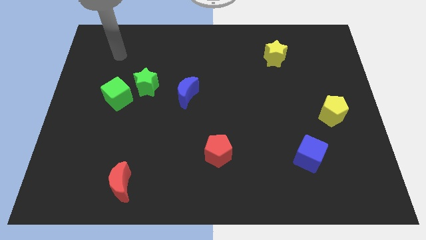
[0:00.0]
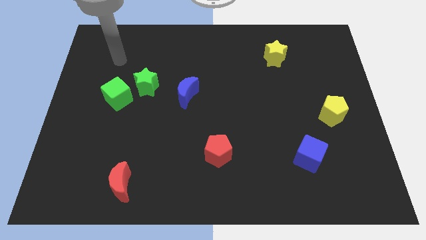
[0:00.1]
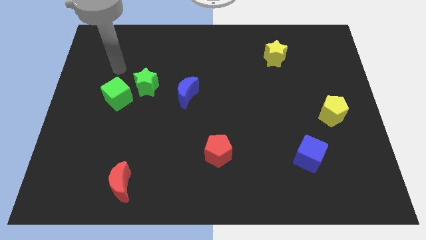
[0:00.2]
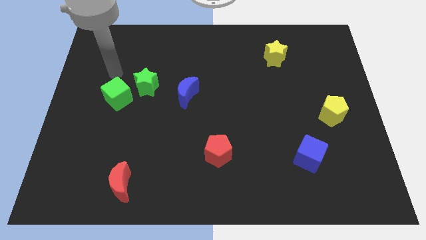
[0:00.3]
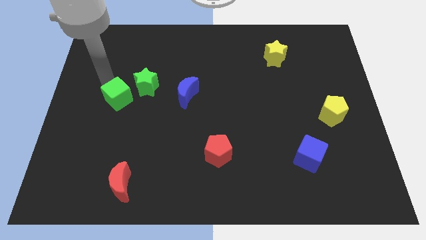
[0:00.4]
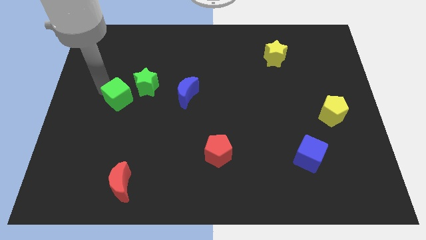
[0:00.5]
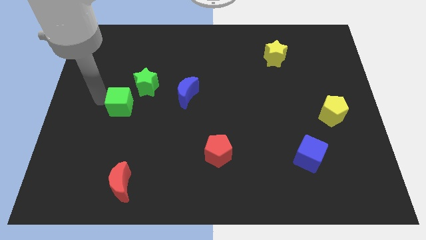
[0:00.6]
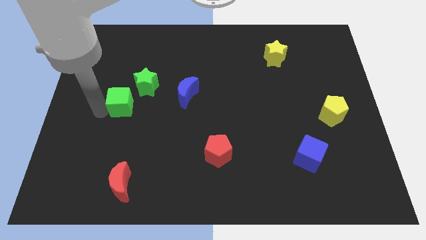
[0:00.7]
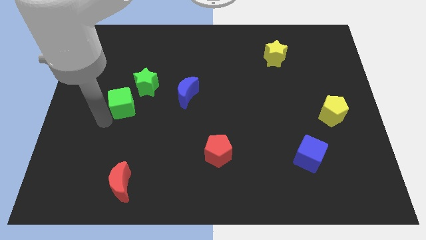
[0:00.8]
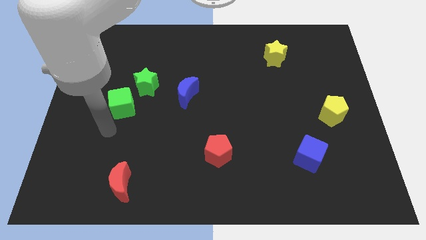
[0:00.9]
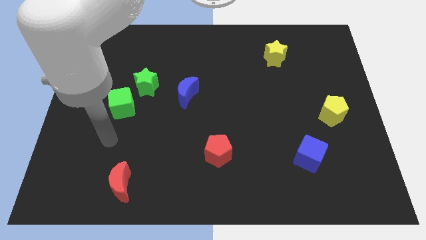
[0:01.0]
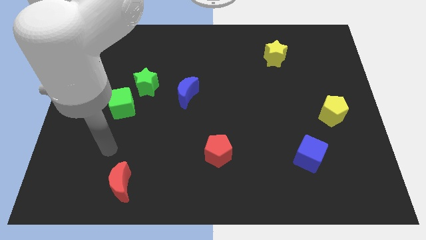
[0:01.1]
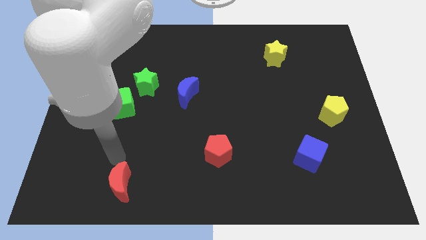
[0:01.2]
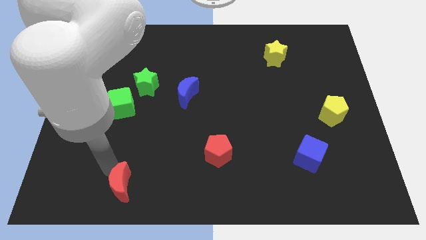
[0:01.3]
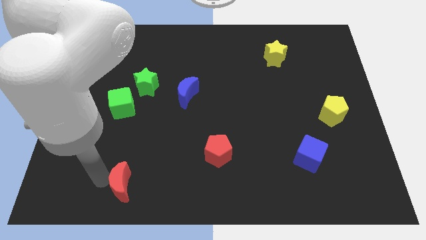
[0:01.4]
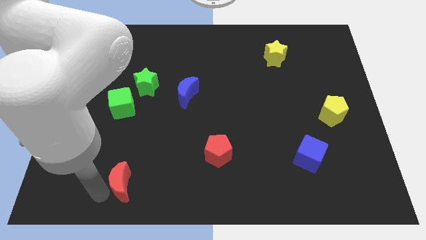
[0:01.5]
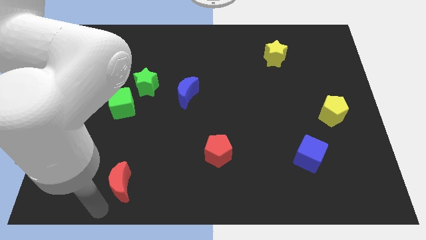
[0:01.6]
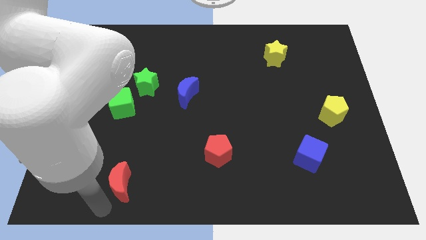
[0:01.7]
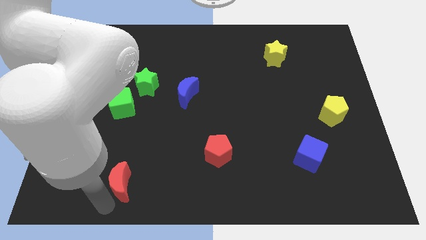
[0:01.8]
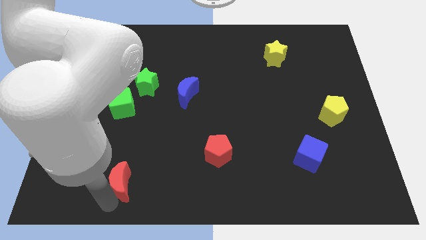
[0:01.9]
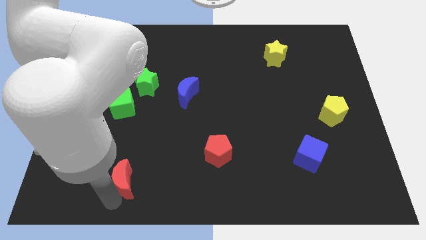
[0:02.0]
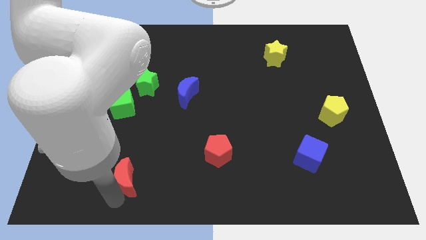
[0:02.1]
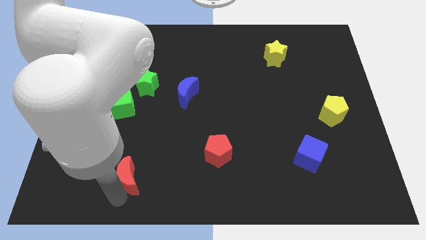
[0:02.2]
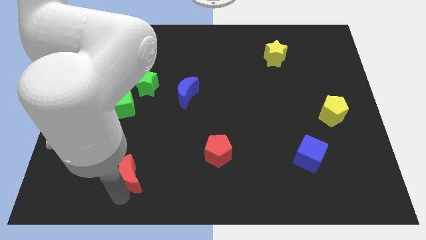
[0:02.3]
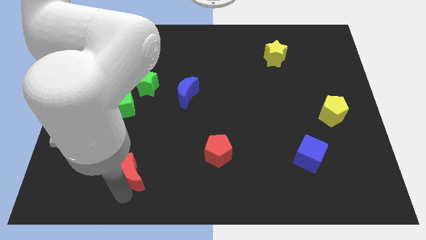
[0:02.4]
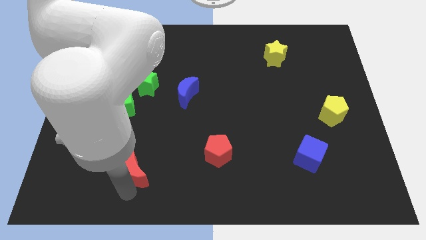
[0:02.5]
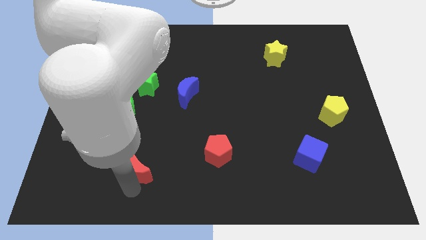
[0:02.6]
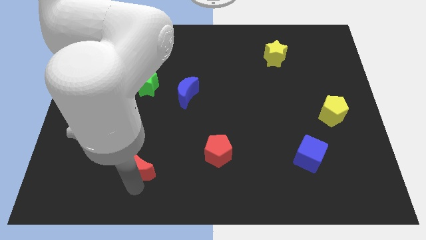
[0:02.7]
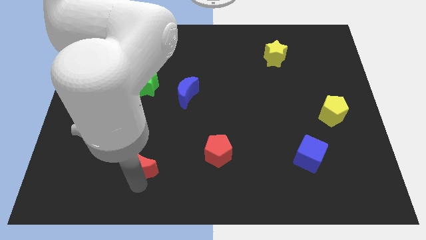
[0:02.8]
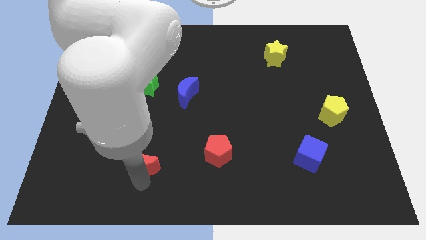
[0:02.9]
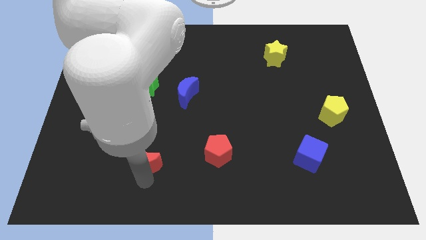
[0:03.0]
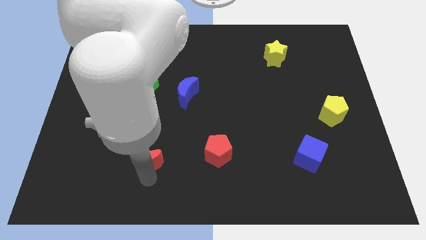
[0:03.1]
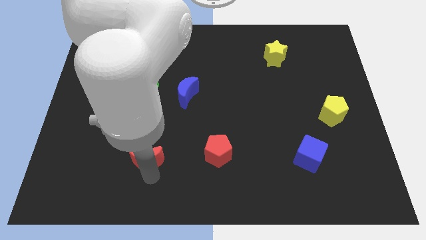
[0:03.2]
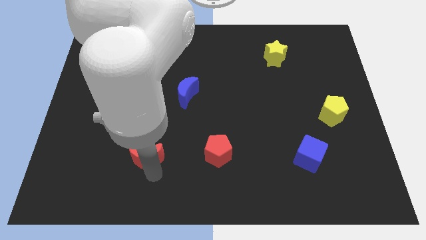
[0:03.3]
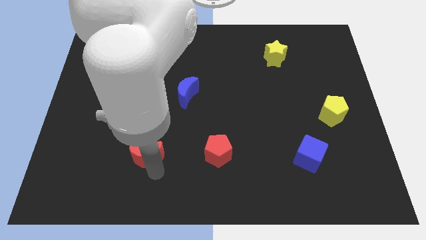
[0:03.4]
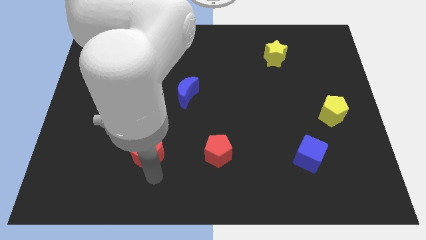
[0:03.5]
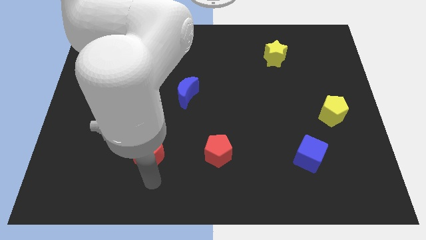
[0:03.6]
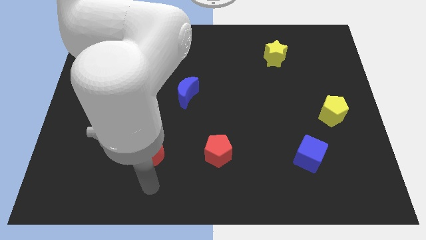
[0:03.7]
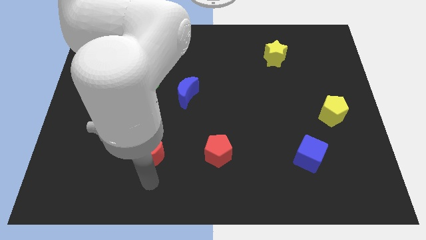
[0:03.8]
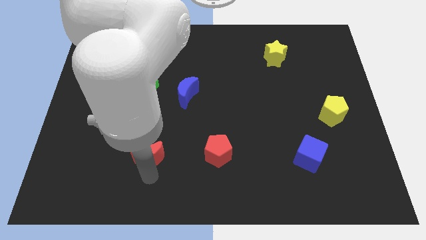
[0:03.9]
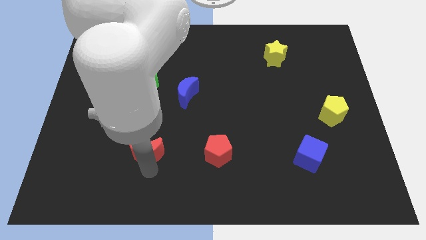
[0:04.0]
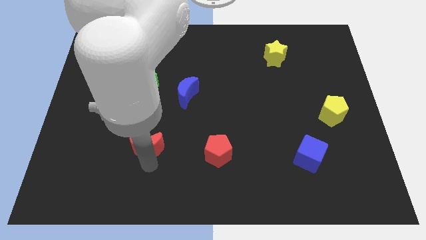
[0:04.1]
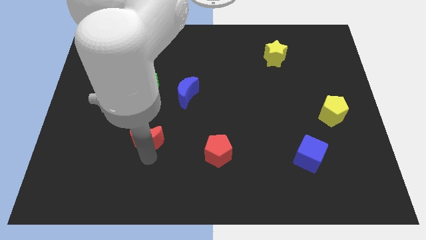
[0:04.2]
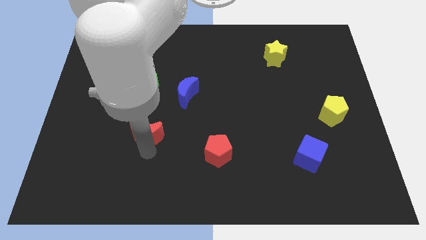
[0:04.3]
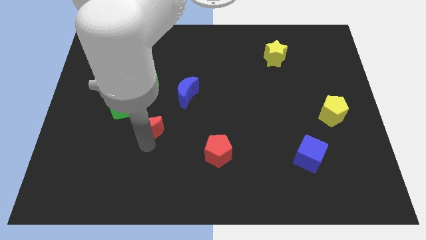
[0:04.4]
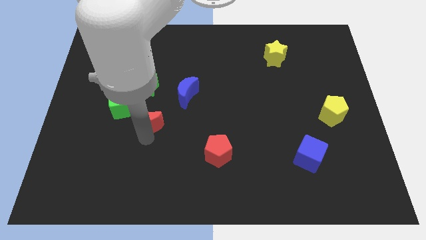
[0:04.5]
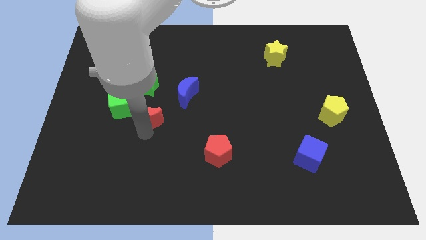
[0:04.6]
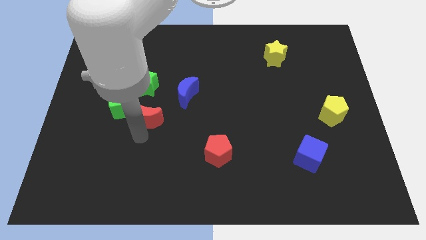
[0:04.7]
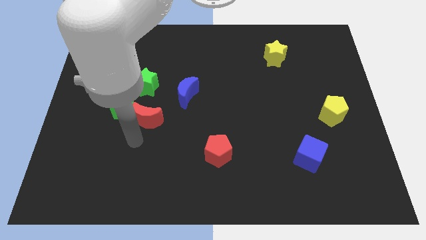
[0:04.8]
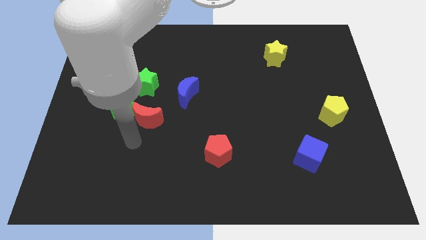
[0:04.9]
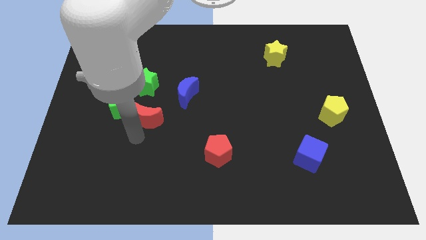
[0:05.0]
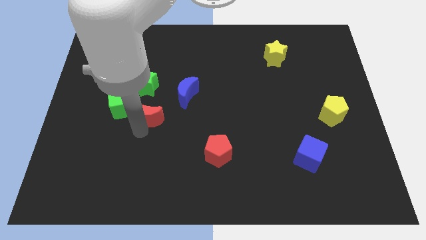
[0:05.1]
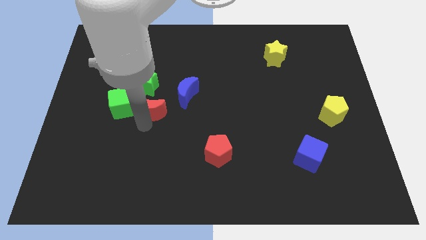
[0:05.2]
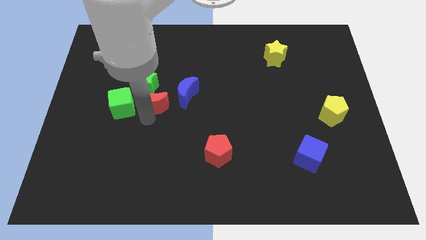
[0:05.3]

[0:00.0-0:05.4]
put the red moon diagonally up and to the right of the green cube

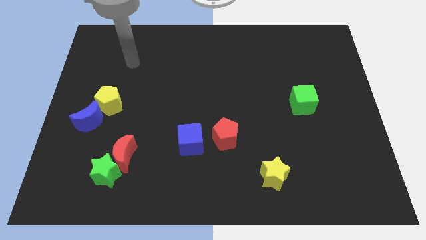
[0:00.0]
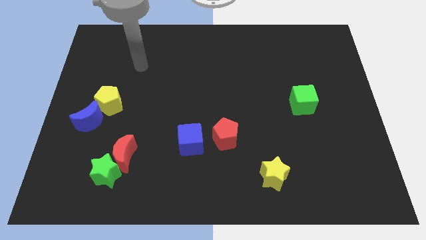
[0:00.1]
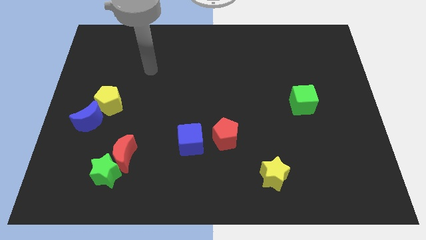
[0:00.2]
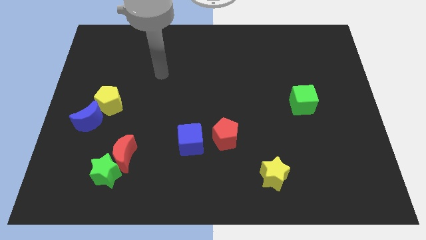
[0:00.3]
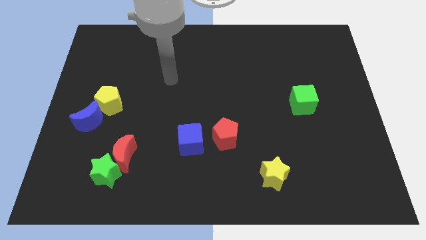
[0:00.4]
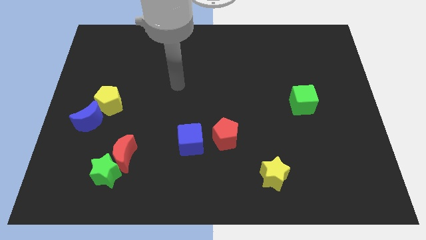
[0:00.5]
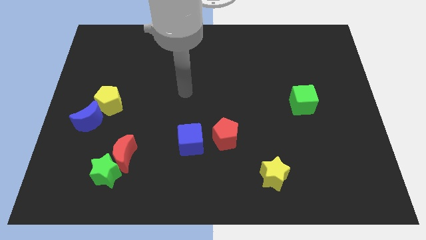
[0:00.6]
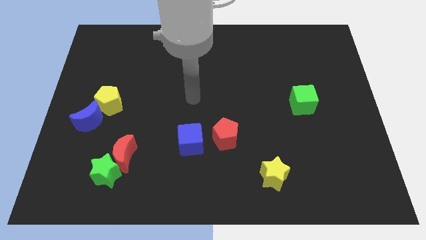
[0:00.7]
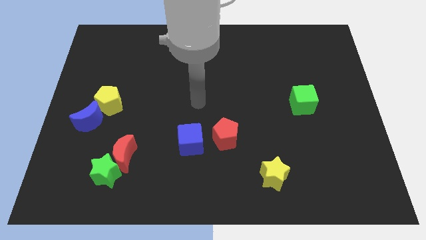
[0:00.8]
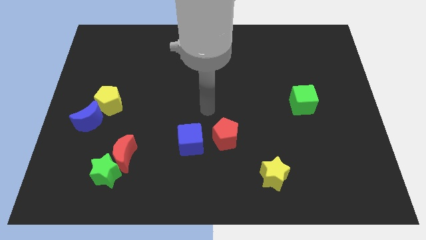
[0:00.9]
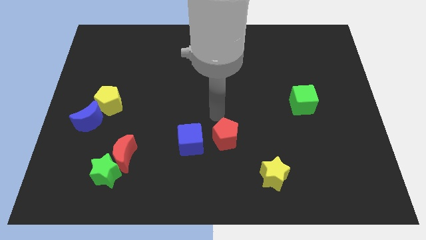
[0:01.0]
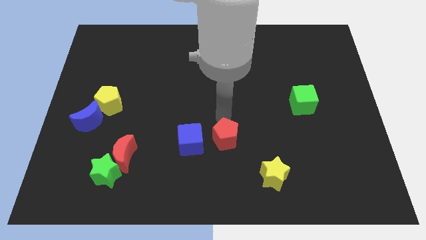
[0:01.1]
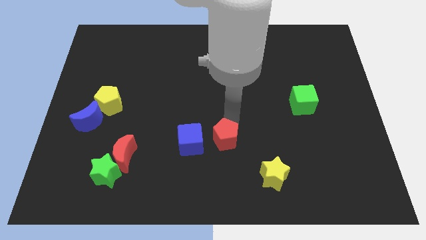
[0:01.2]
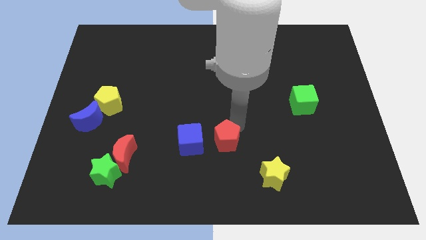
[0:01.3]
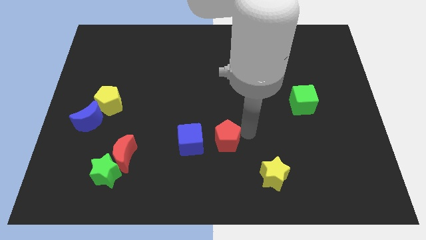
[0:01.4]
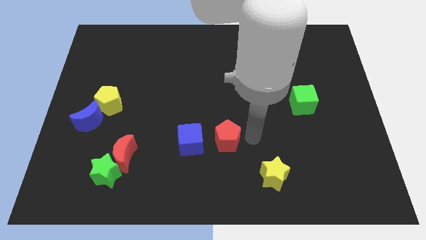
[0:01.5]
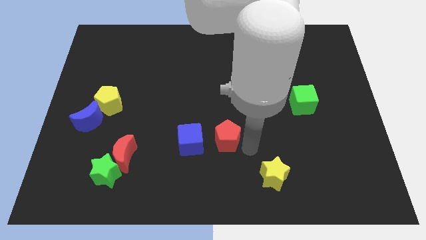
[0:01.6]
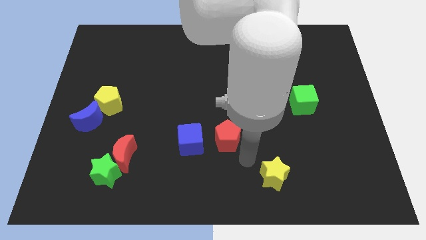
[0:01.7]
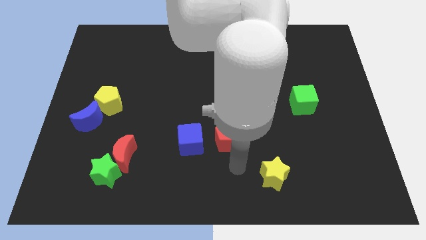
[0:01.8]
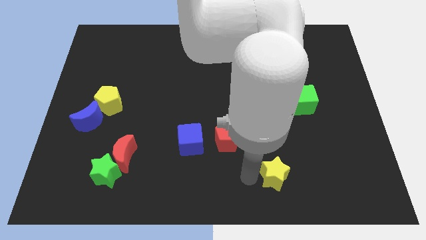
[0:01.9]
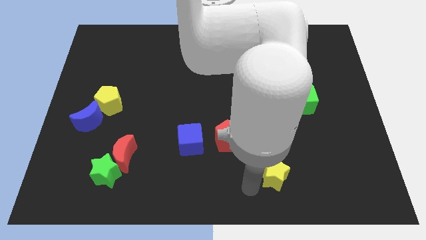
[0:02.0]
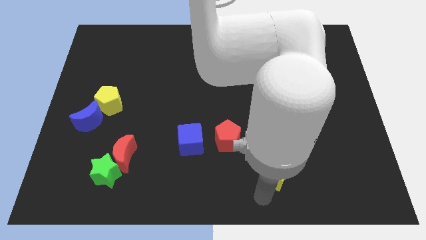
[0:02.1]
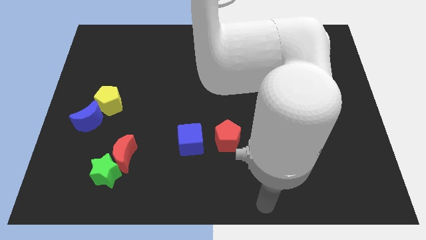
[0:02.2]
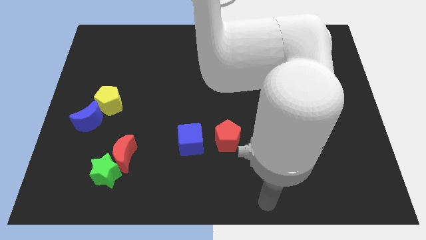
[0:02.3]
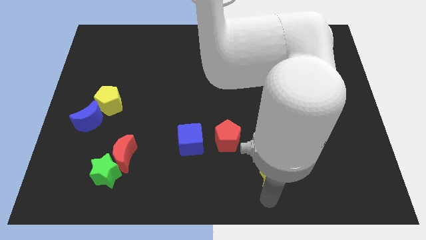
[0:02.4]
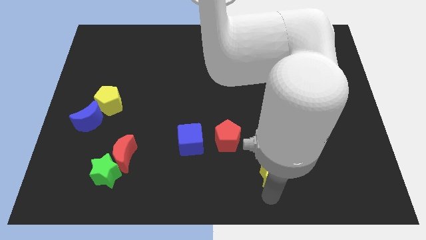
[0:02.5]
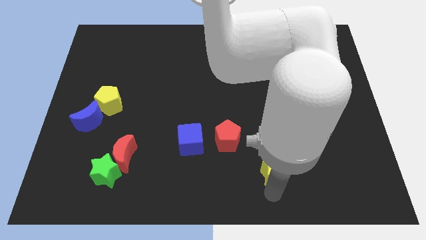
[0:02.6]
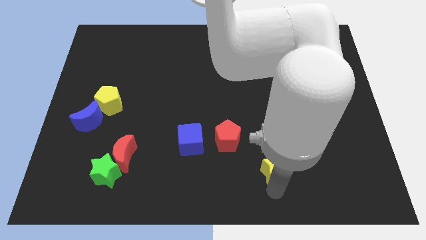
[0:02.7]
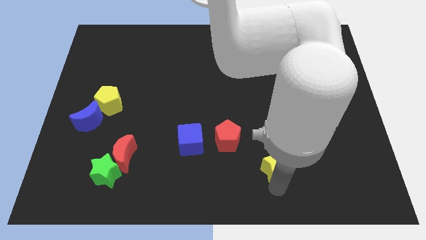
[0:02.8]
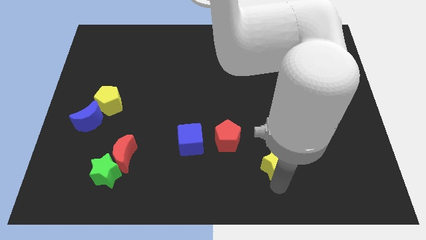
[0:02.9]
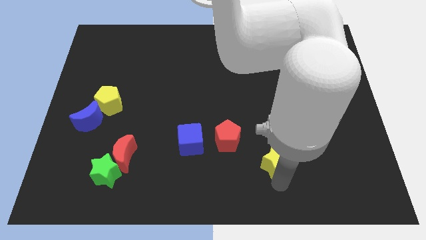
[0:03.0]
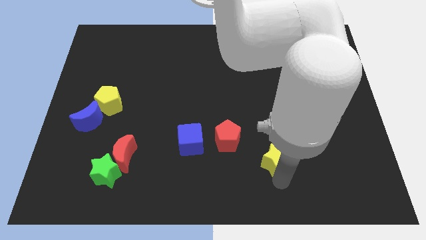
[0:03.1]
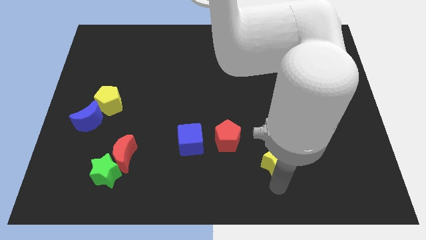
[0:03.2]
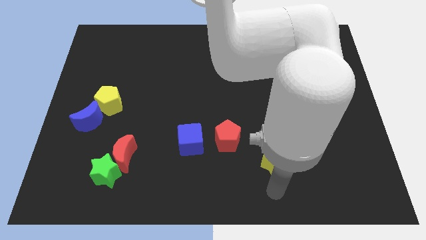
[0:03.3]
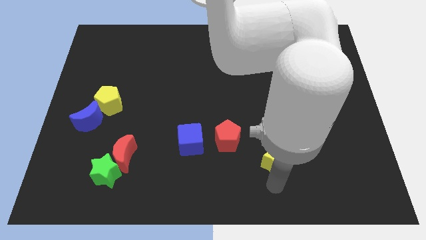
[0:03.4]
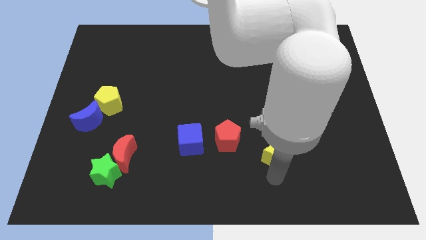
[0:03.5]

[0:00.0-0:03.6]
slide the yellow star to the right side of the red pentagon
